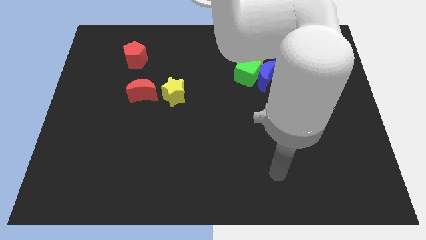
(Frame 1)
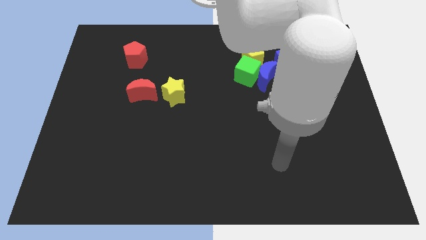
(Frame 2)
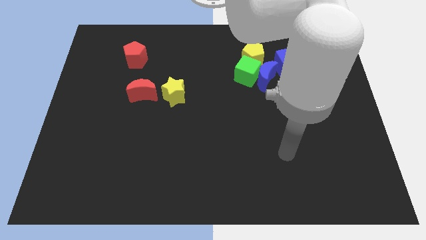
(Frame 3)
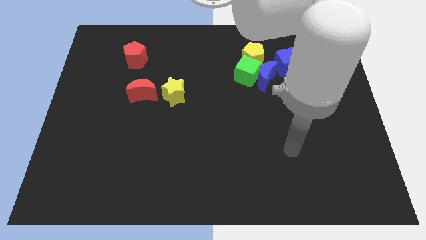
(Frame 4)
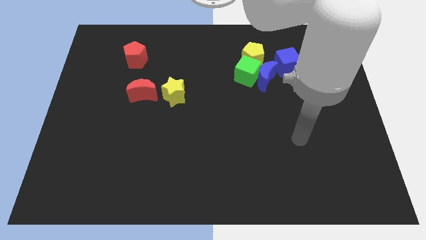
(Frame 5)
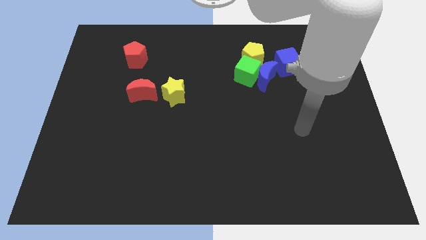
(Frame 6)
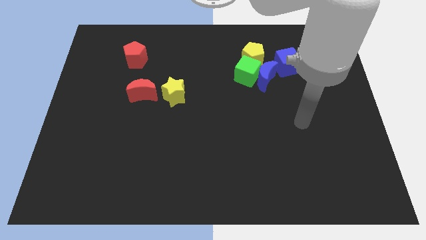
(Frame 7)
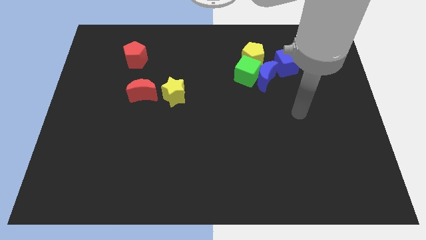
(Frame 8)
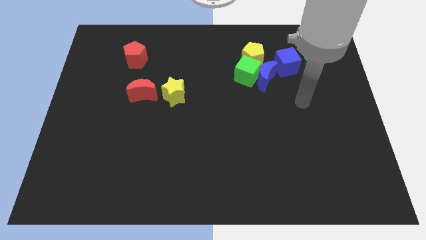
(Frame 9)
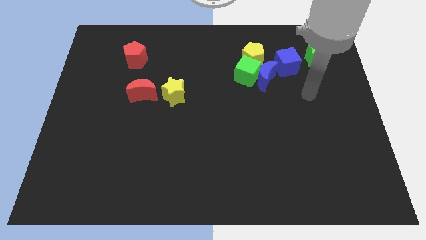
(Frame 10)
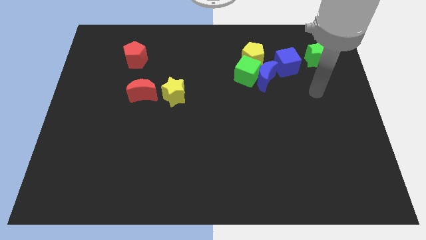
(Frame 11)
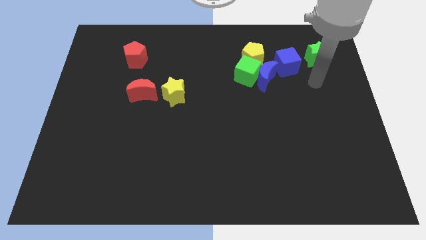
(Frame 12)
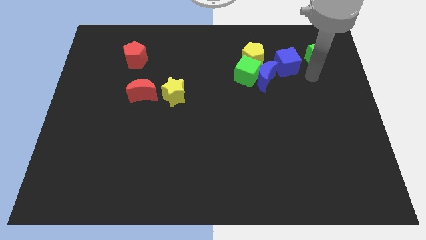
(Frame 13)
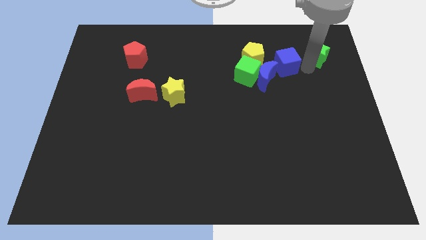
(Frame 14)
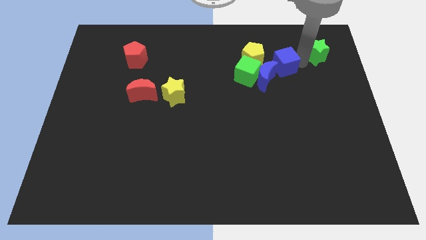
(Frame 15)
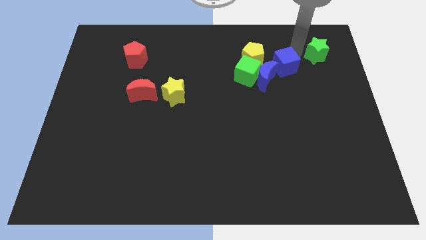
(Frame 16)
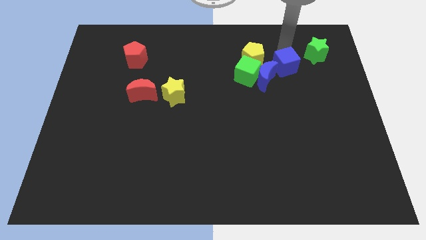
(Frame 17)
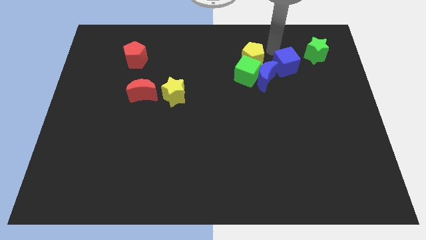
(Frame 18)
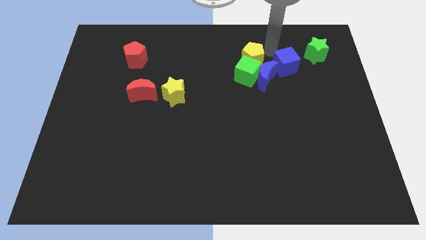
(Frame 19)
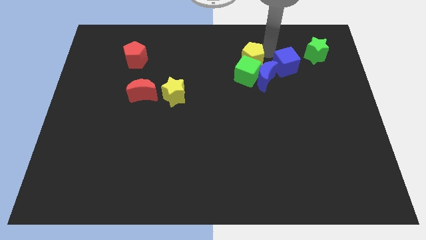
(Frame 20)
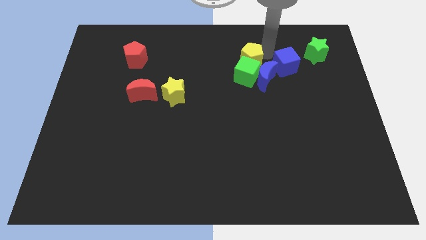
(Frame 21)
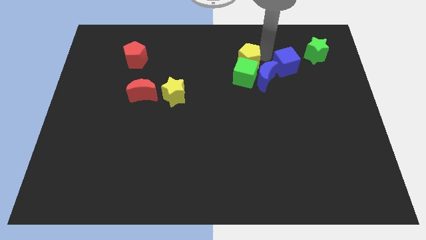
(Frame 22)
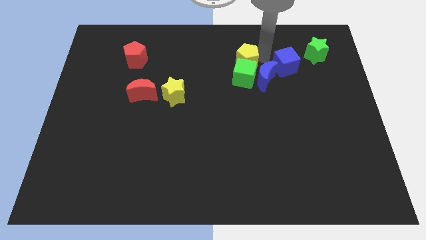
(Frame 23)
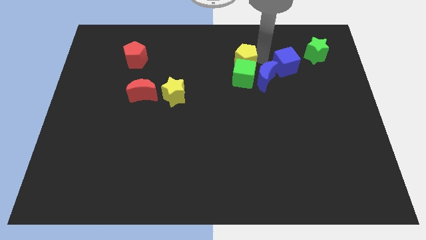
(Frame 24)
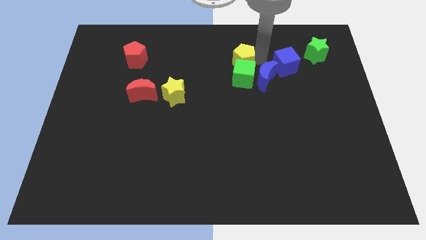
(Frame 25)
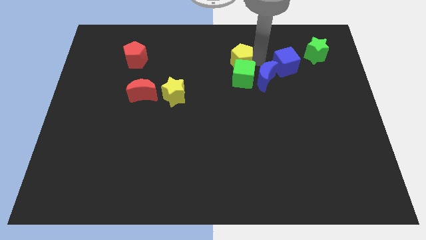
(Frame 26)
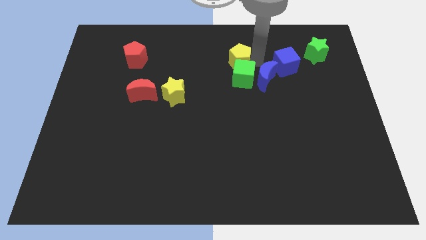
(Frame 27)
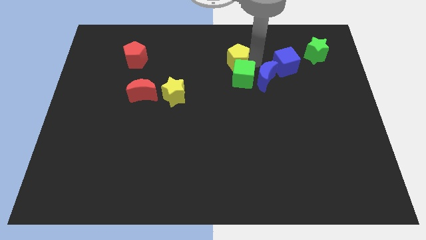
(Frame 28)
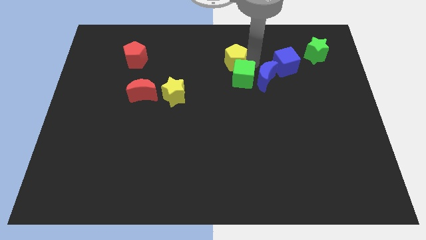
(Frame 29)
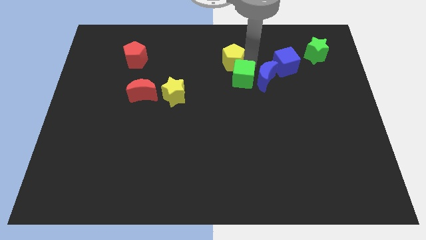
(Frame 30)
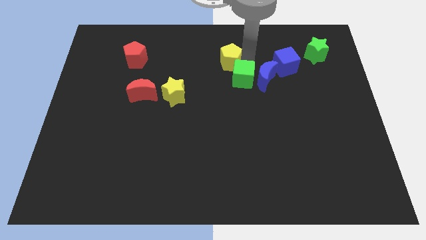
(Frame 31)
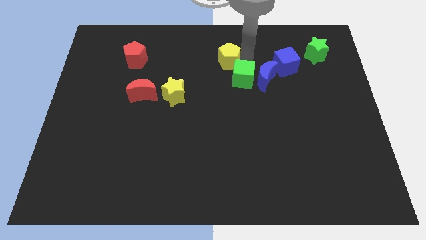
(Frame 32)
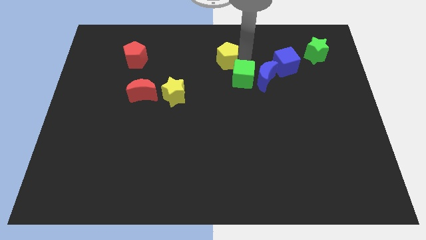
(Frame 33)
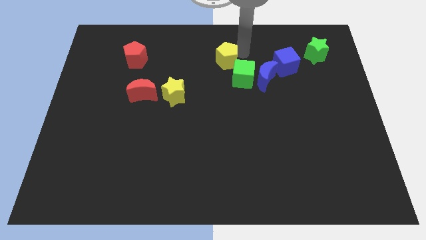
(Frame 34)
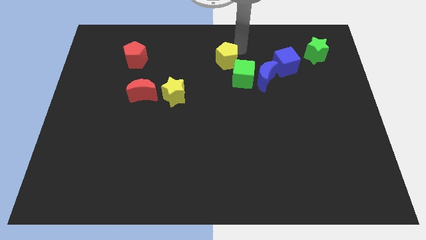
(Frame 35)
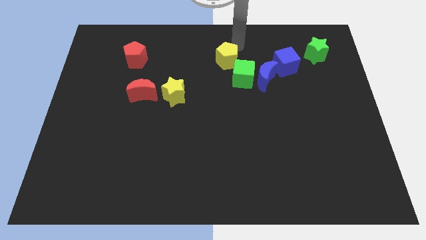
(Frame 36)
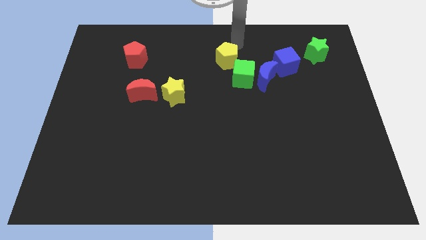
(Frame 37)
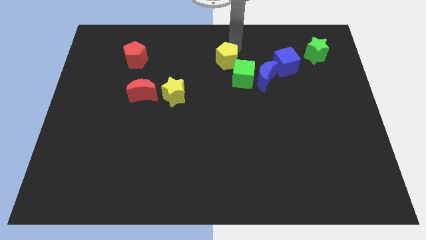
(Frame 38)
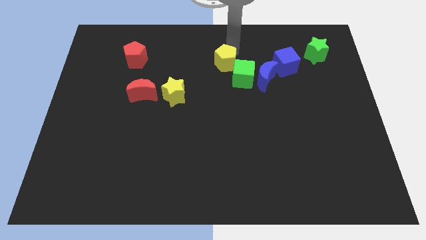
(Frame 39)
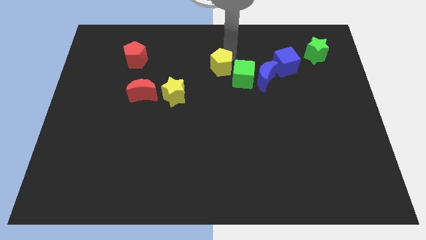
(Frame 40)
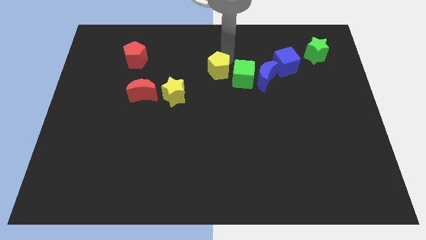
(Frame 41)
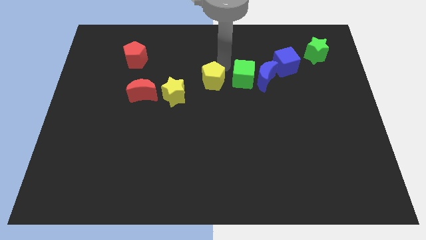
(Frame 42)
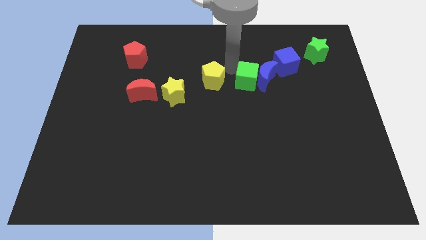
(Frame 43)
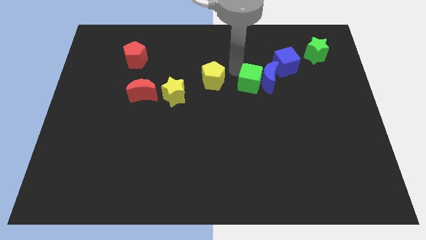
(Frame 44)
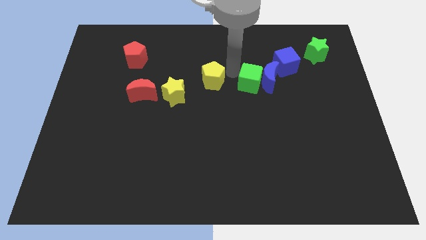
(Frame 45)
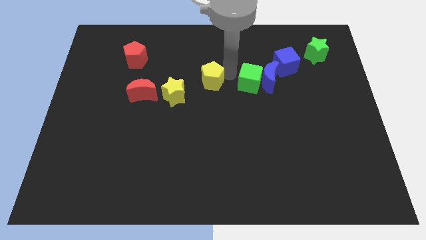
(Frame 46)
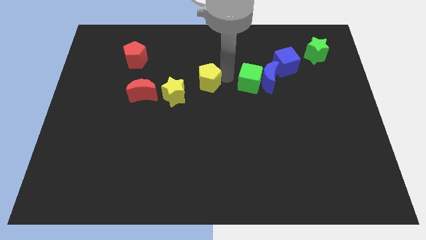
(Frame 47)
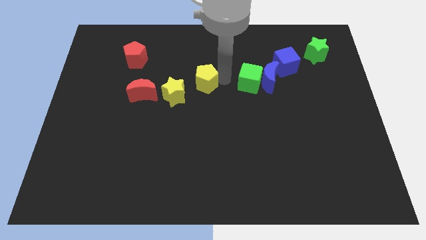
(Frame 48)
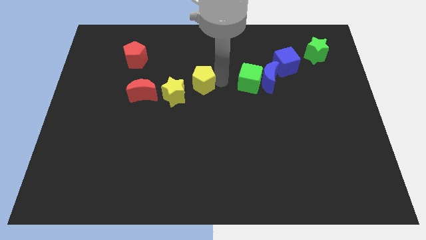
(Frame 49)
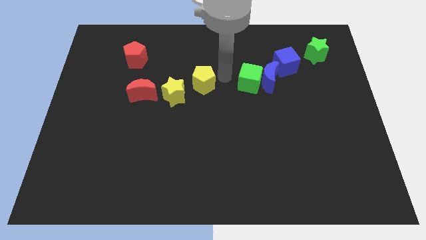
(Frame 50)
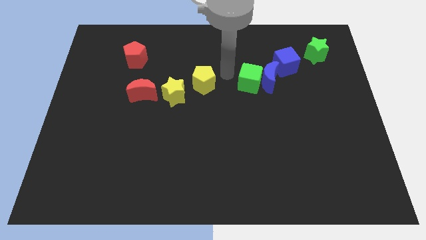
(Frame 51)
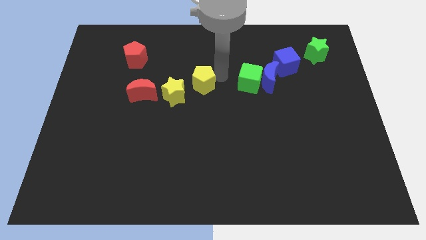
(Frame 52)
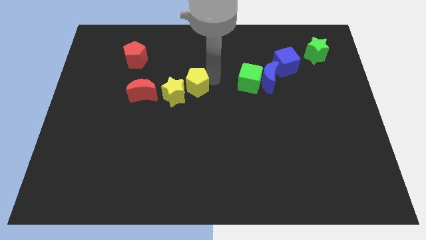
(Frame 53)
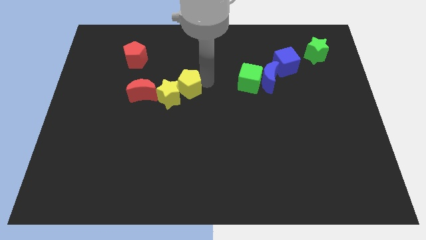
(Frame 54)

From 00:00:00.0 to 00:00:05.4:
move the yellow pentagon close to the yellow star

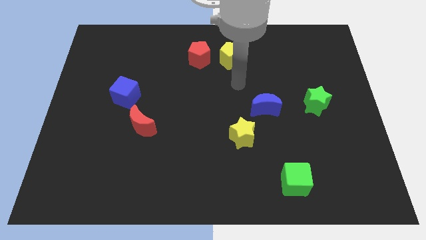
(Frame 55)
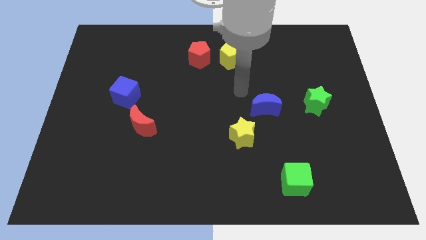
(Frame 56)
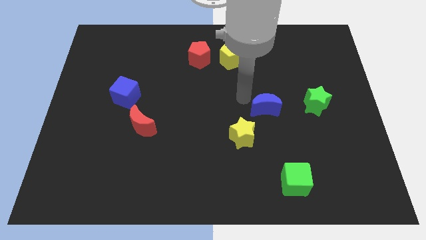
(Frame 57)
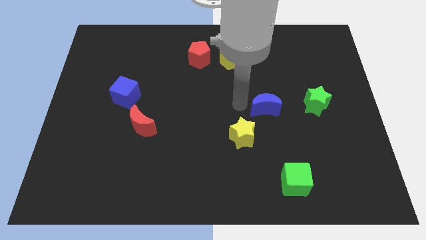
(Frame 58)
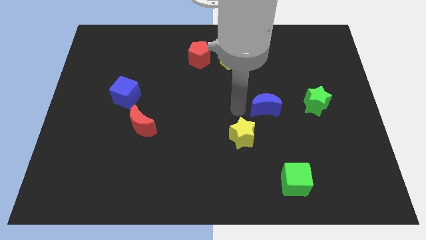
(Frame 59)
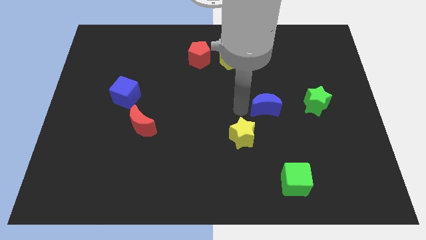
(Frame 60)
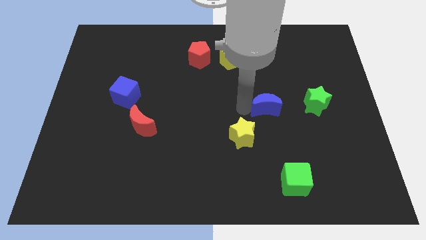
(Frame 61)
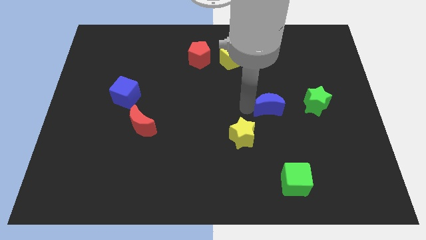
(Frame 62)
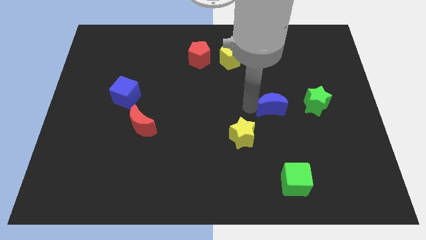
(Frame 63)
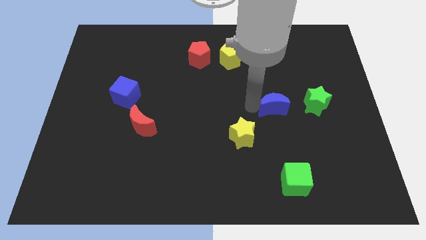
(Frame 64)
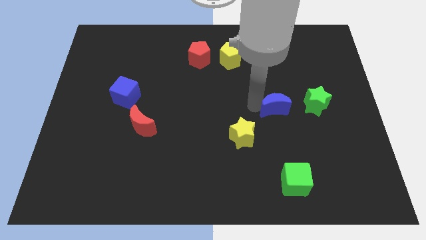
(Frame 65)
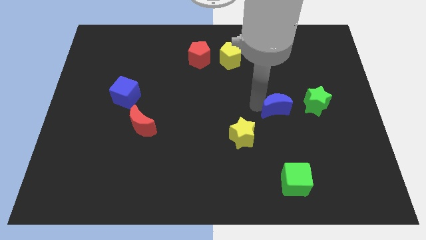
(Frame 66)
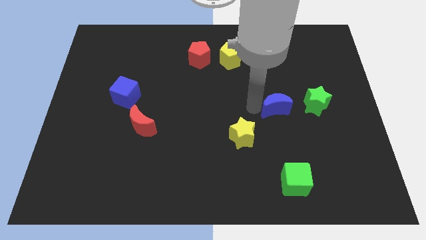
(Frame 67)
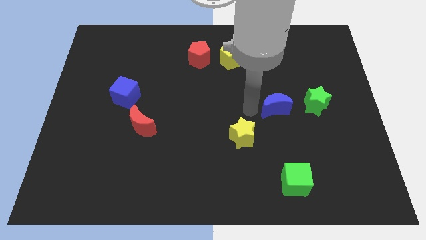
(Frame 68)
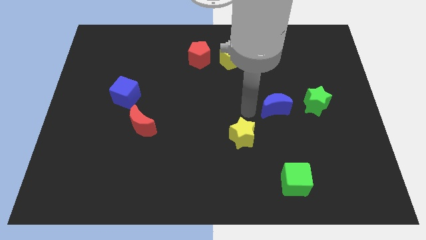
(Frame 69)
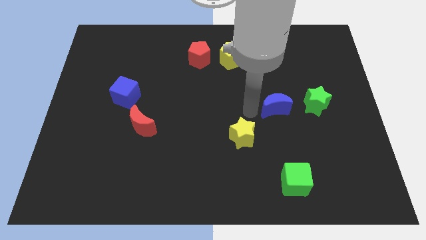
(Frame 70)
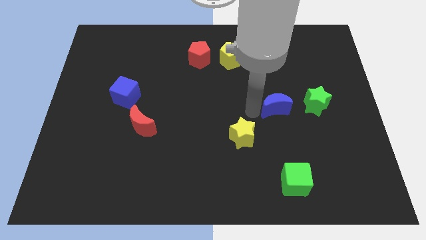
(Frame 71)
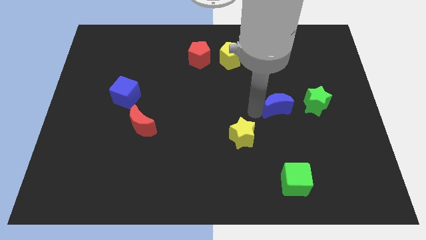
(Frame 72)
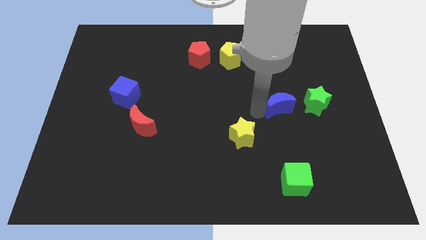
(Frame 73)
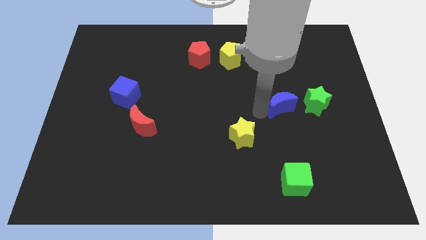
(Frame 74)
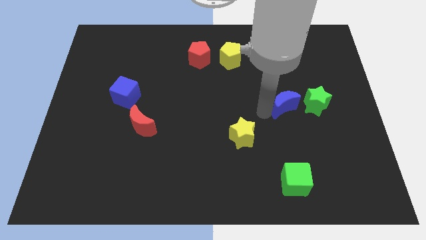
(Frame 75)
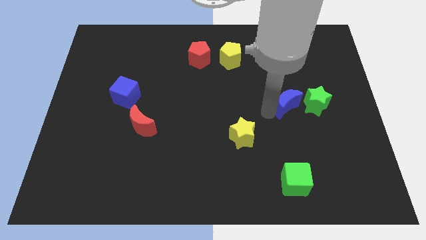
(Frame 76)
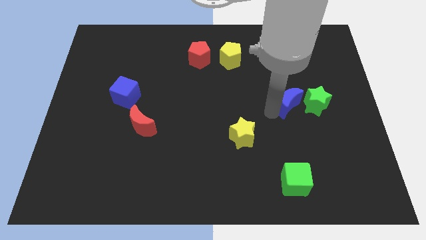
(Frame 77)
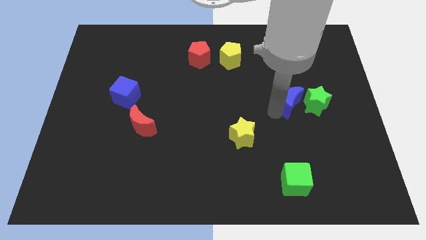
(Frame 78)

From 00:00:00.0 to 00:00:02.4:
push the blue moon to the green star
